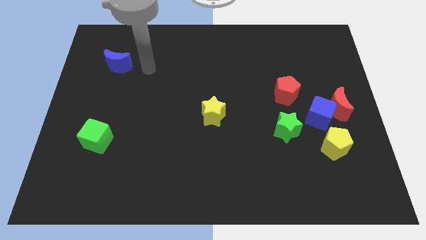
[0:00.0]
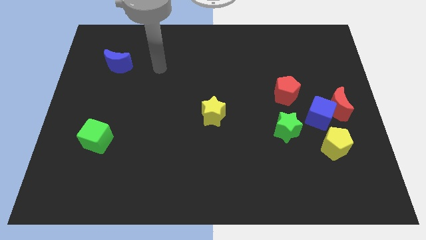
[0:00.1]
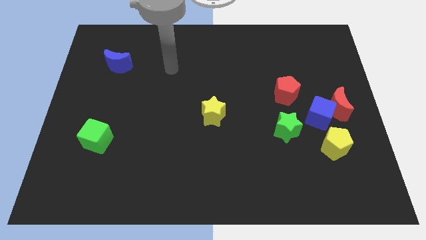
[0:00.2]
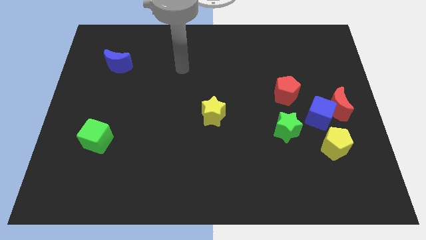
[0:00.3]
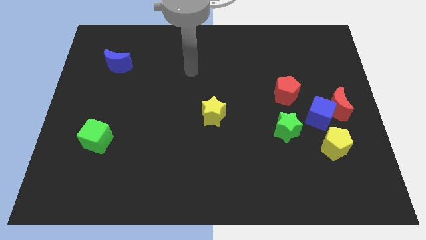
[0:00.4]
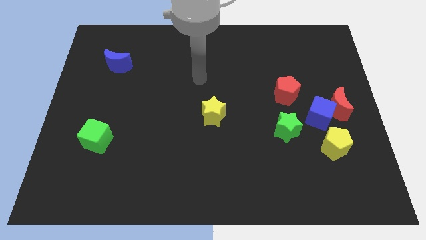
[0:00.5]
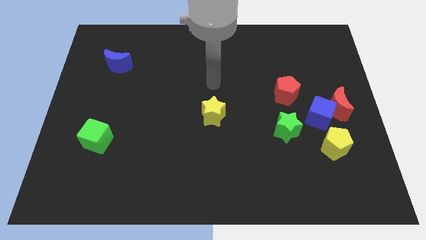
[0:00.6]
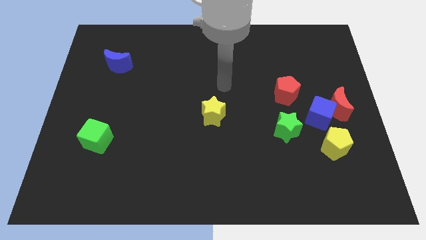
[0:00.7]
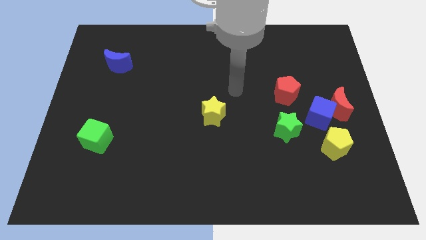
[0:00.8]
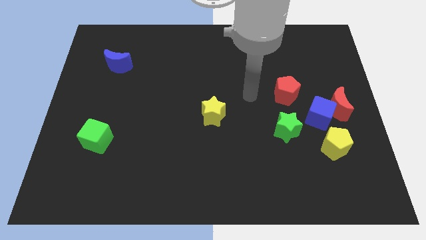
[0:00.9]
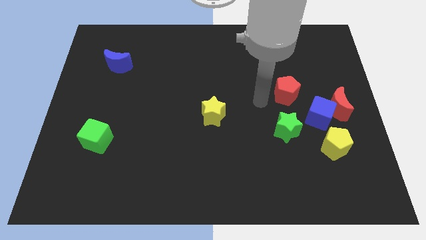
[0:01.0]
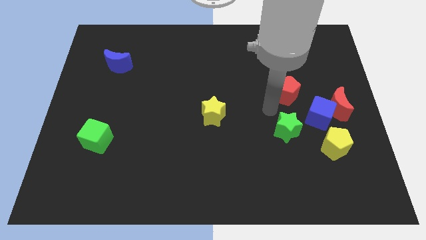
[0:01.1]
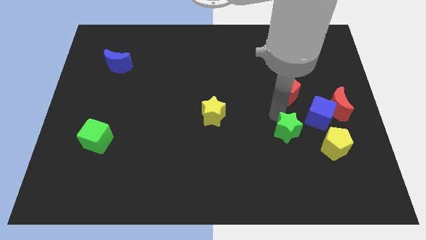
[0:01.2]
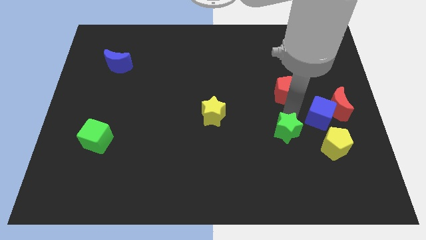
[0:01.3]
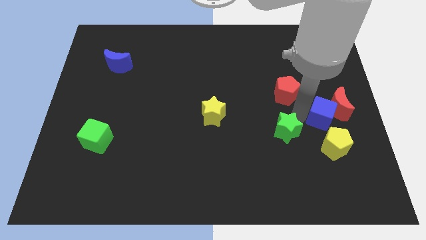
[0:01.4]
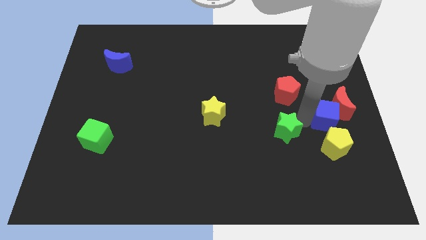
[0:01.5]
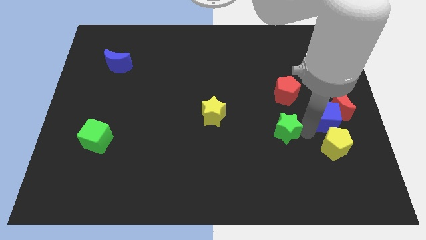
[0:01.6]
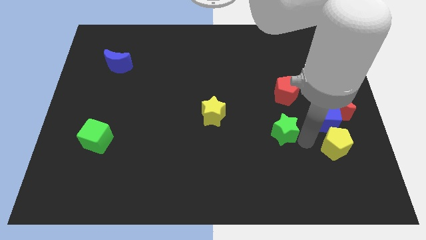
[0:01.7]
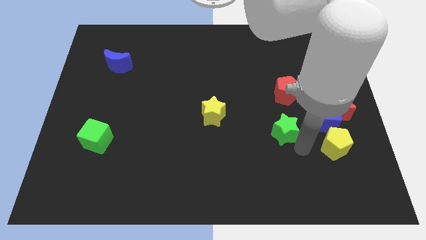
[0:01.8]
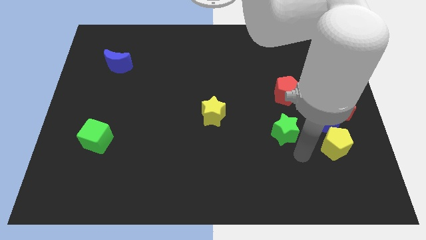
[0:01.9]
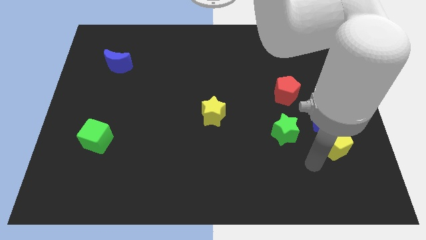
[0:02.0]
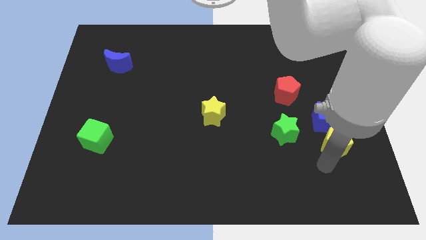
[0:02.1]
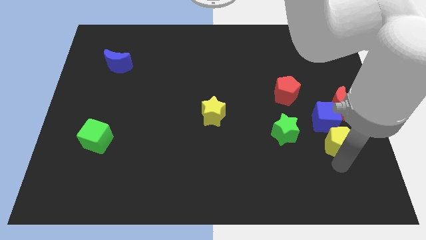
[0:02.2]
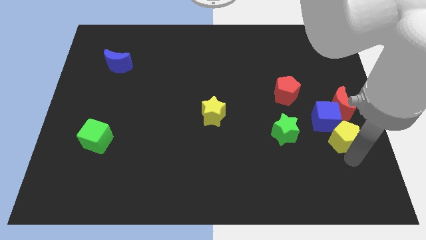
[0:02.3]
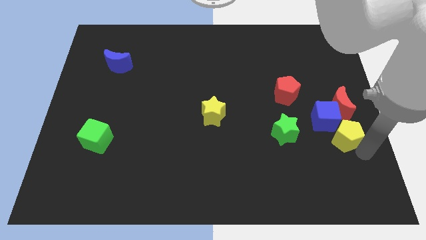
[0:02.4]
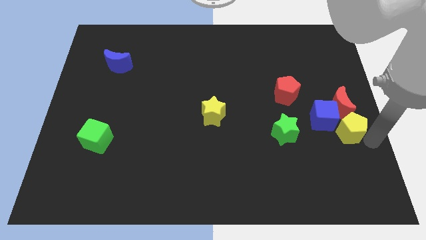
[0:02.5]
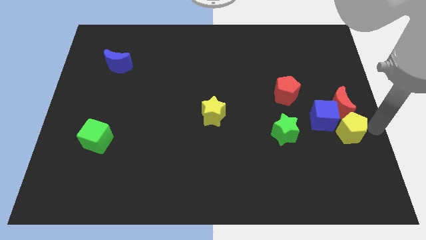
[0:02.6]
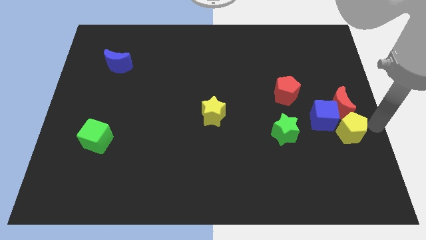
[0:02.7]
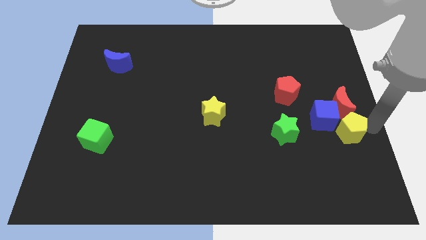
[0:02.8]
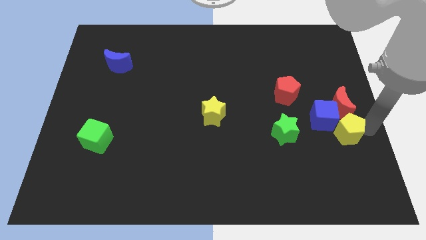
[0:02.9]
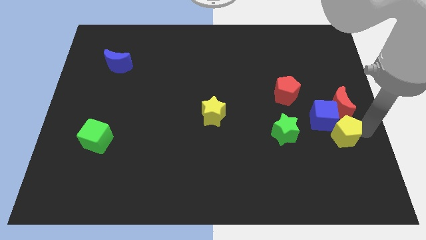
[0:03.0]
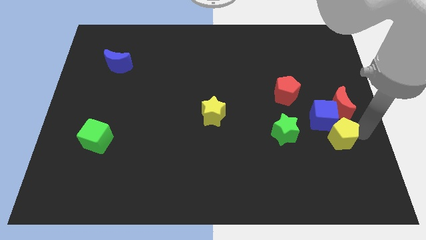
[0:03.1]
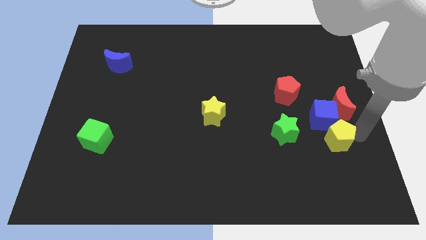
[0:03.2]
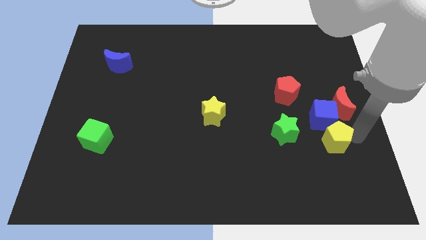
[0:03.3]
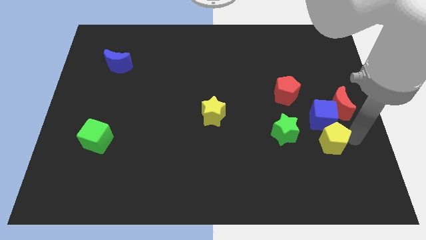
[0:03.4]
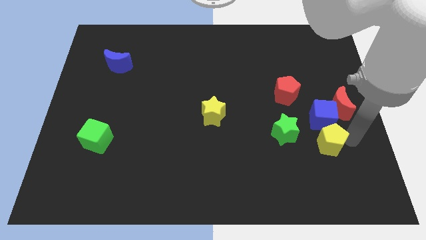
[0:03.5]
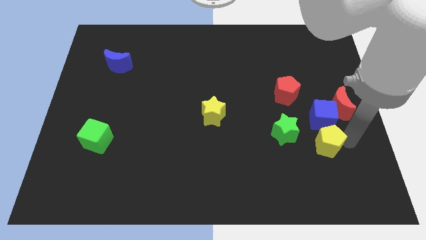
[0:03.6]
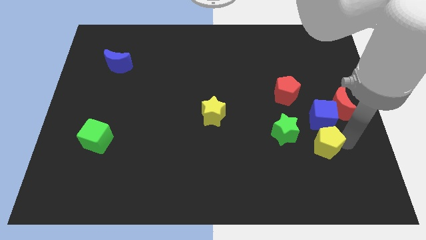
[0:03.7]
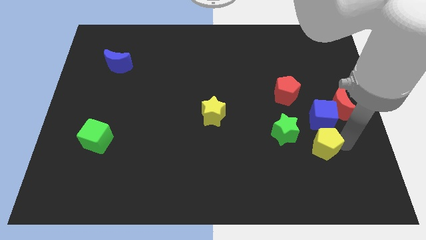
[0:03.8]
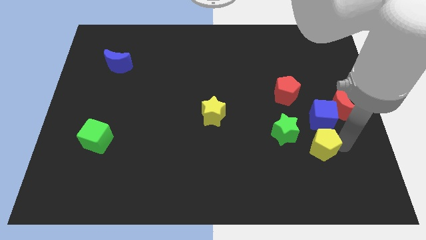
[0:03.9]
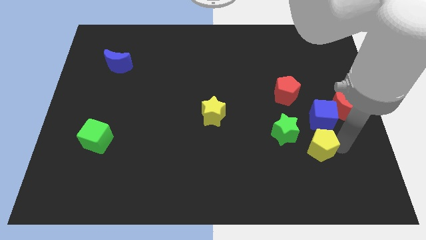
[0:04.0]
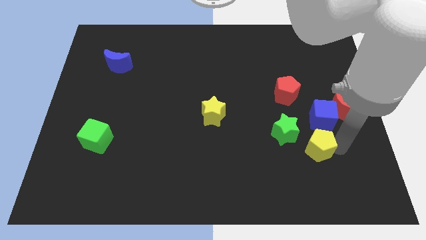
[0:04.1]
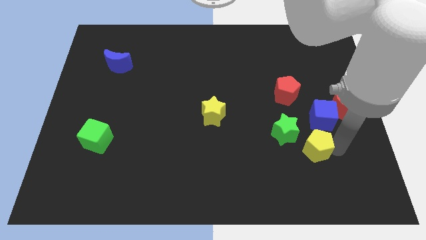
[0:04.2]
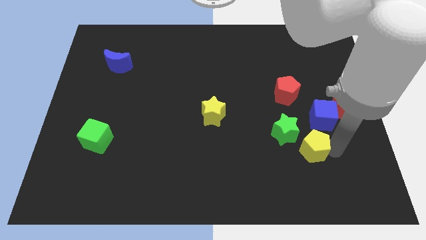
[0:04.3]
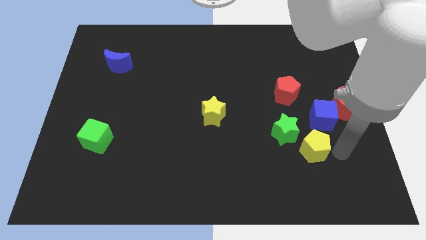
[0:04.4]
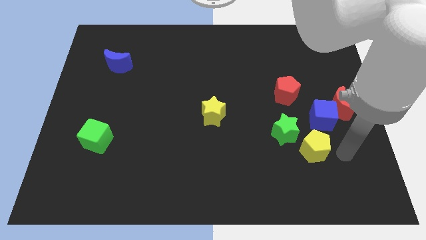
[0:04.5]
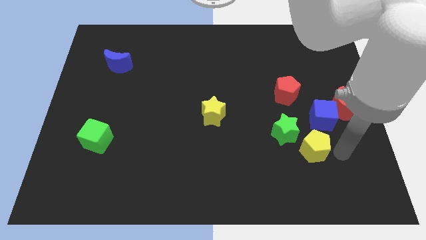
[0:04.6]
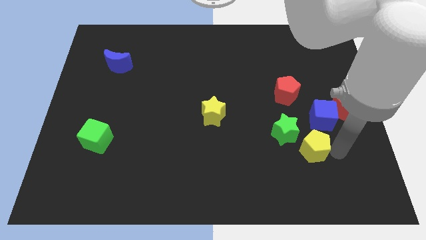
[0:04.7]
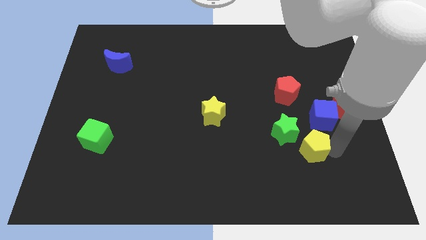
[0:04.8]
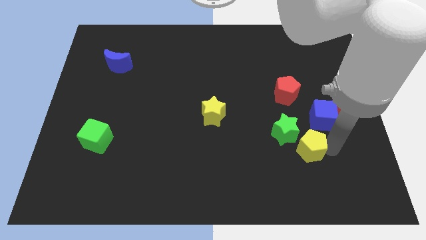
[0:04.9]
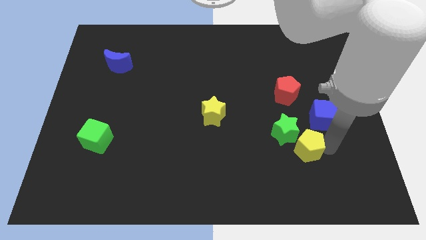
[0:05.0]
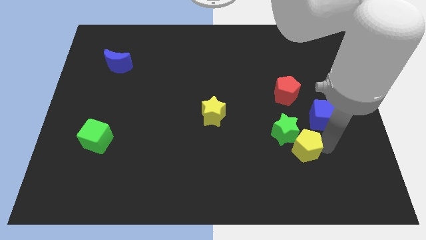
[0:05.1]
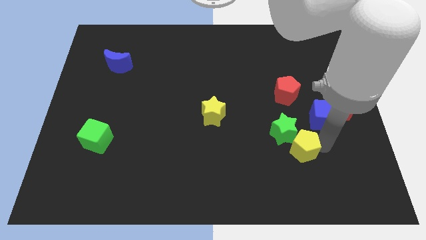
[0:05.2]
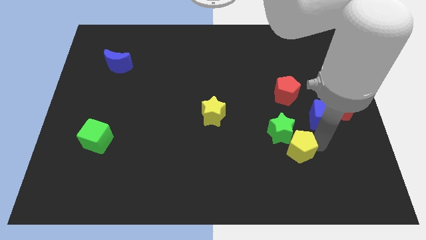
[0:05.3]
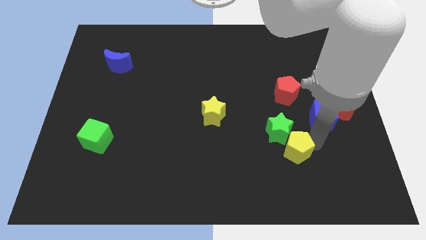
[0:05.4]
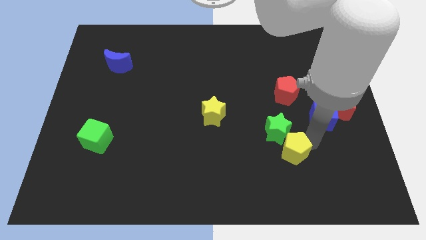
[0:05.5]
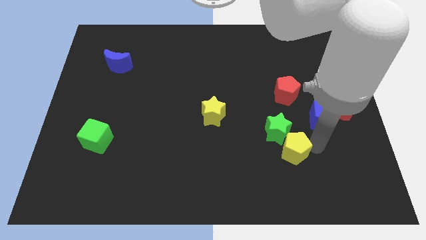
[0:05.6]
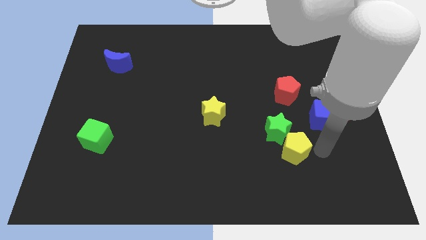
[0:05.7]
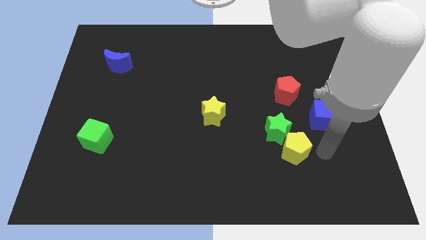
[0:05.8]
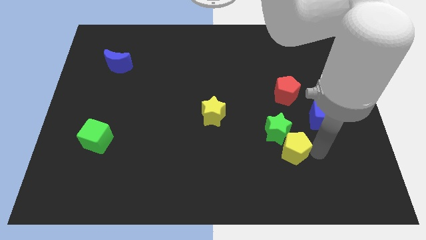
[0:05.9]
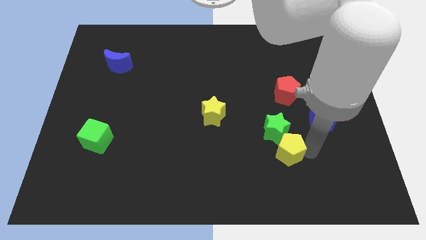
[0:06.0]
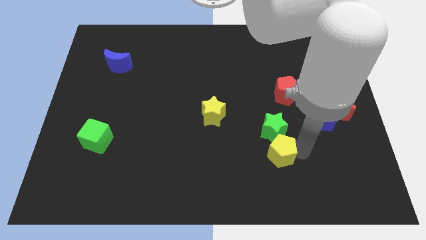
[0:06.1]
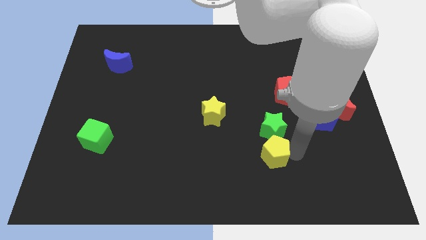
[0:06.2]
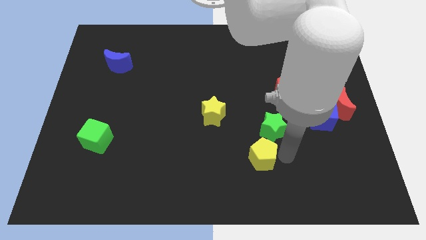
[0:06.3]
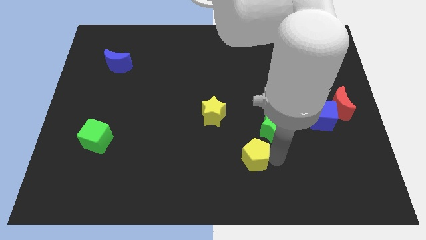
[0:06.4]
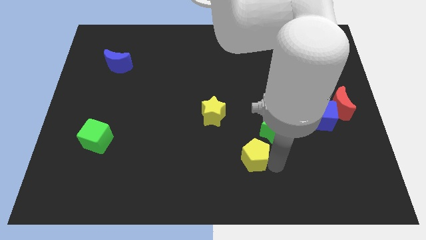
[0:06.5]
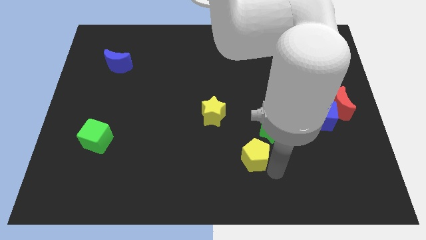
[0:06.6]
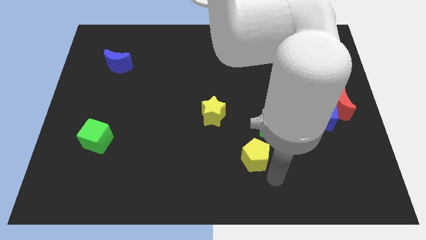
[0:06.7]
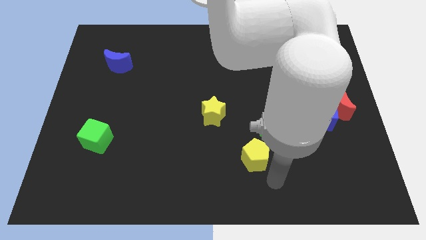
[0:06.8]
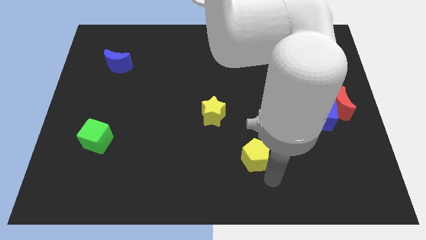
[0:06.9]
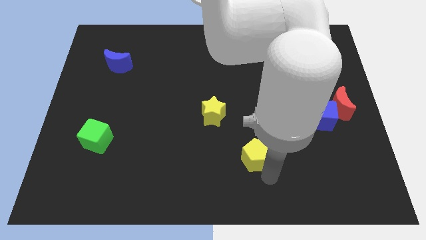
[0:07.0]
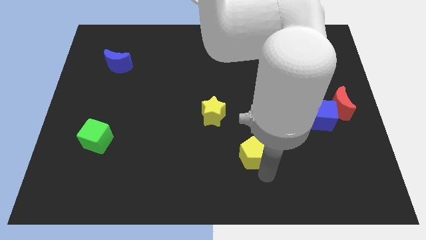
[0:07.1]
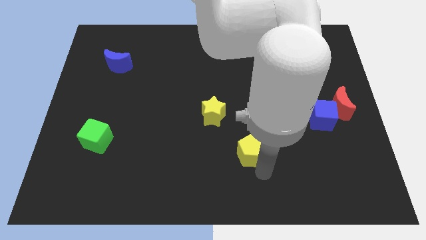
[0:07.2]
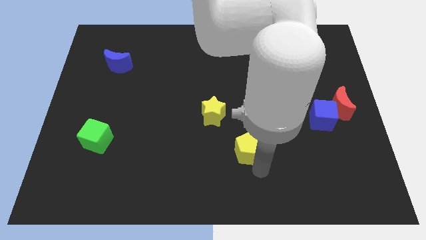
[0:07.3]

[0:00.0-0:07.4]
push the yellow pentagon diagonally down and to the right of the yellow star
